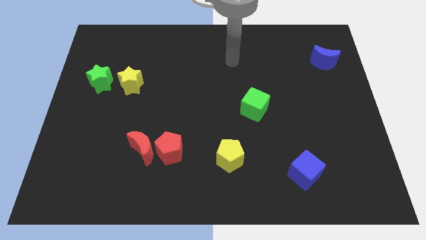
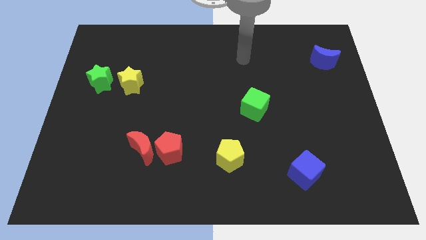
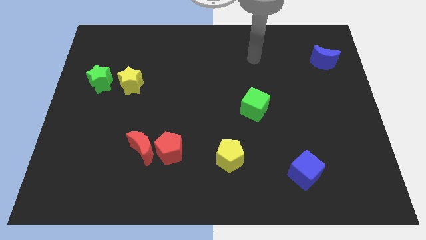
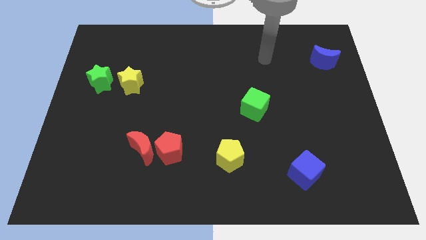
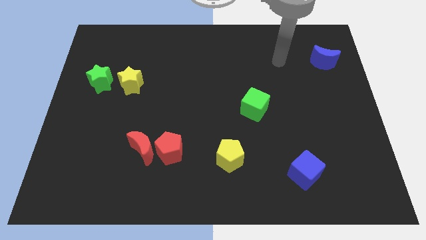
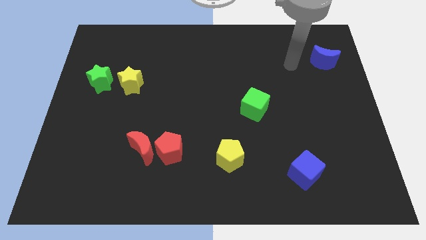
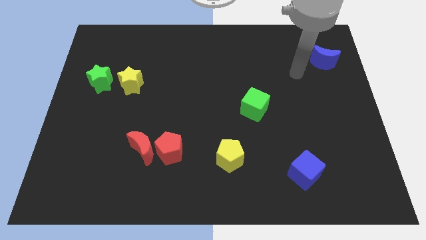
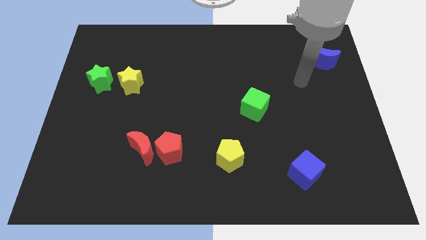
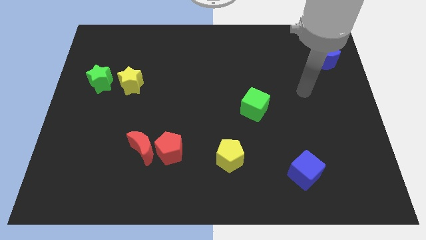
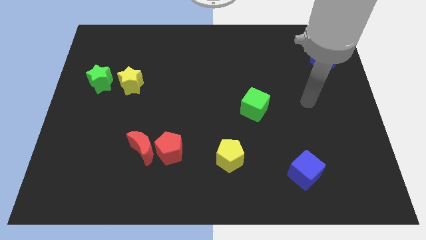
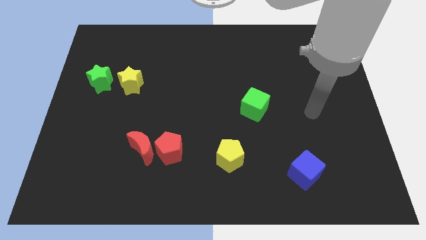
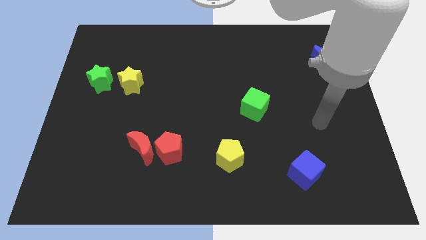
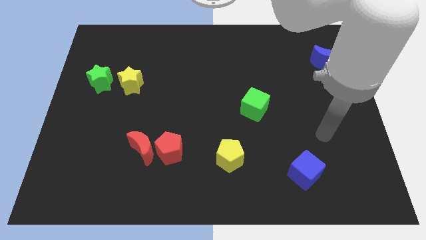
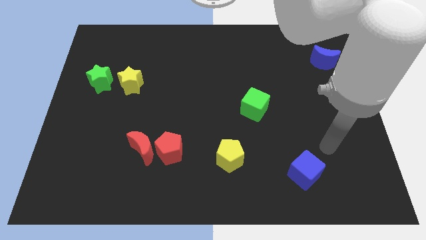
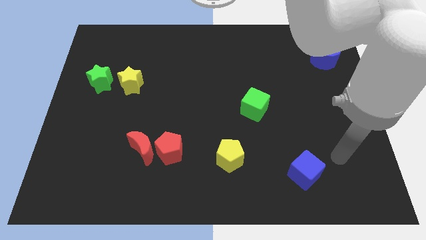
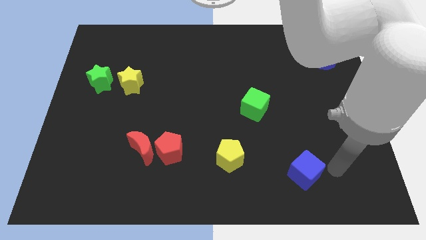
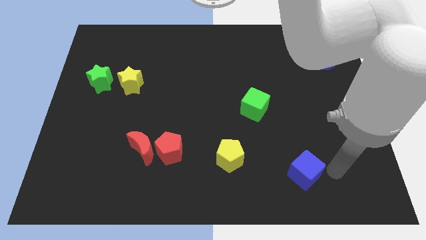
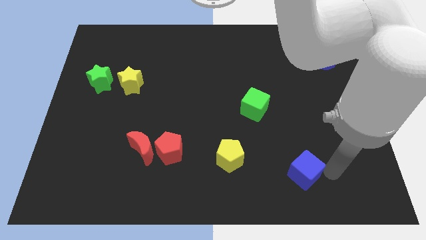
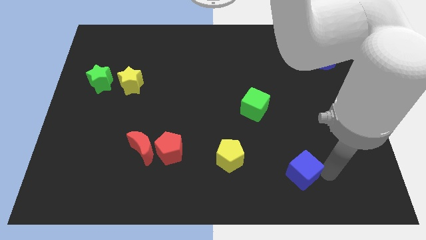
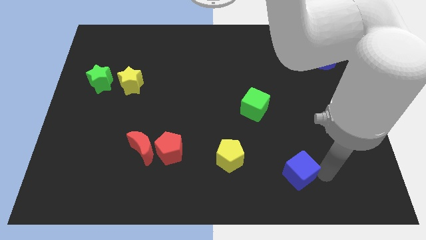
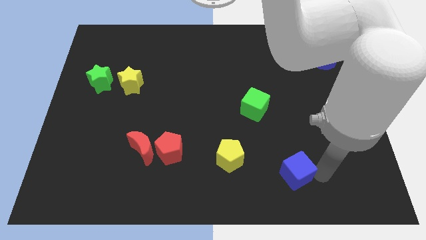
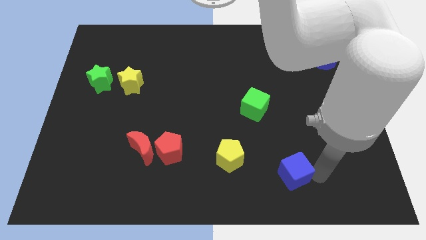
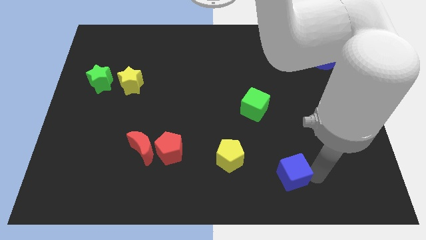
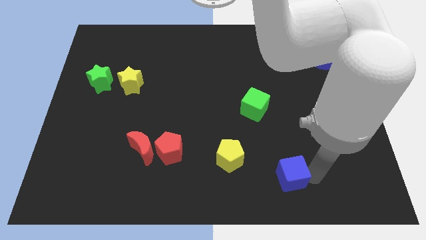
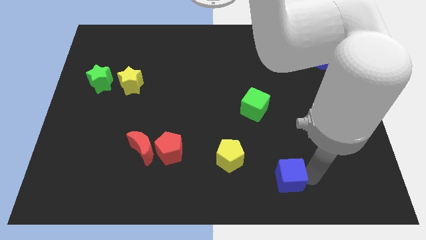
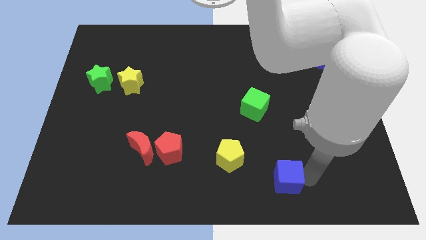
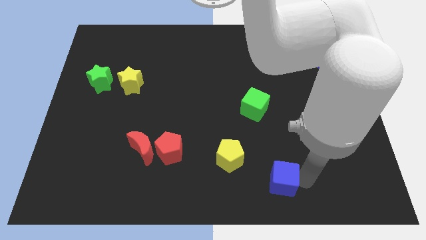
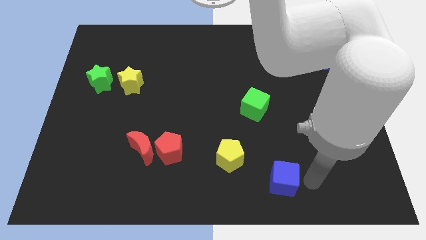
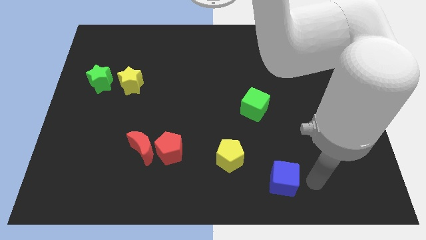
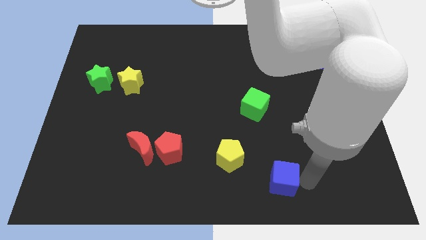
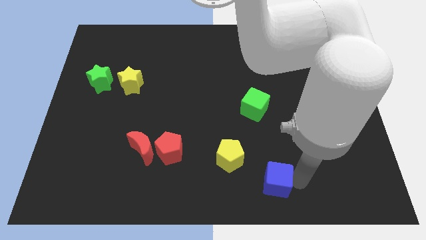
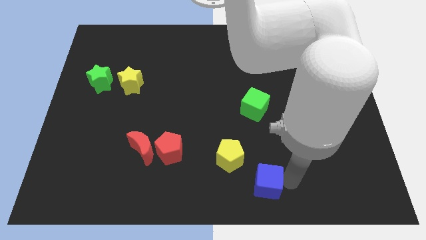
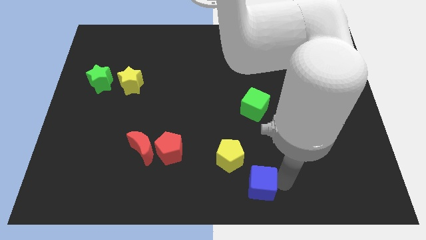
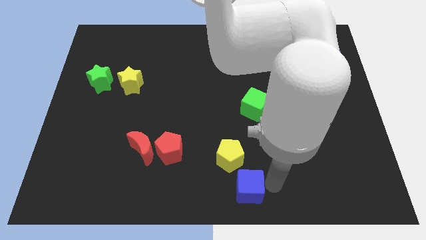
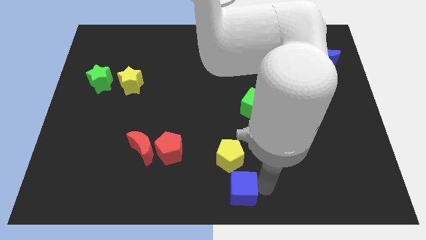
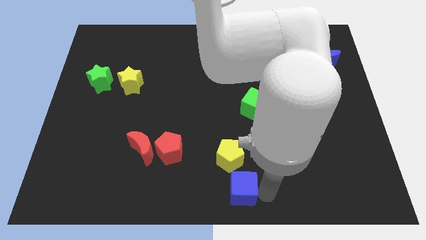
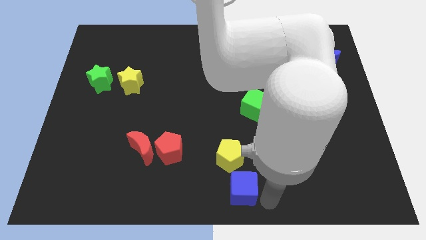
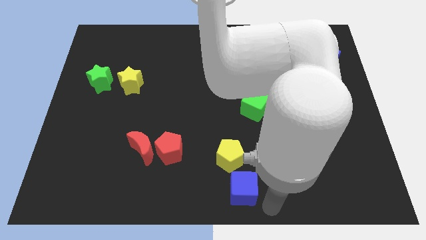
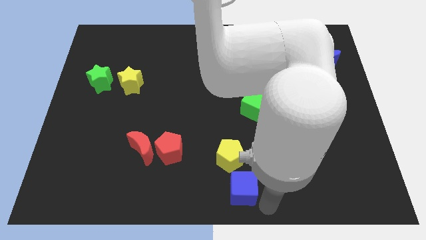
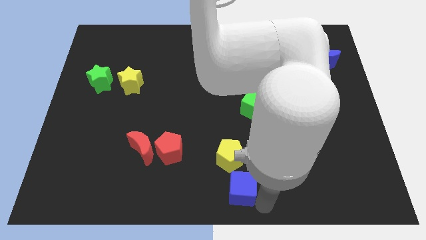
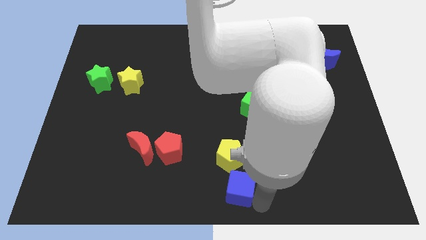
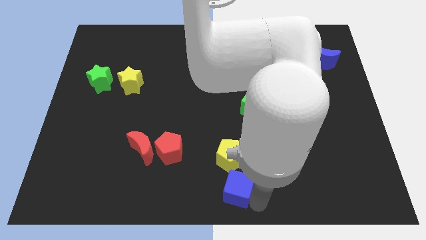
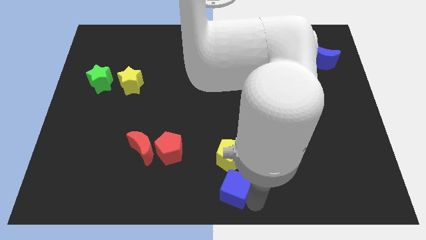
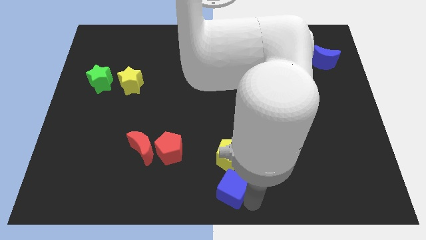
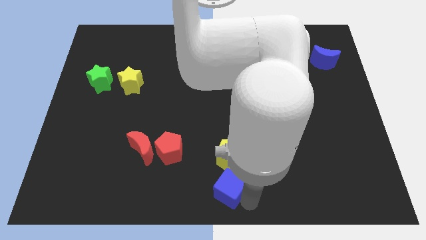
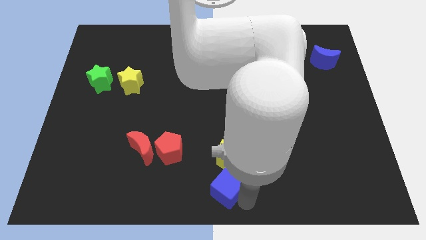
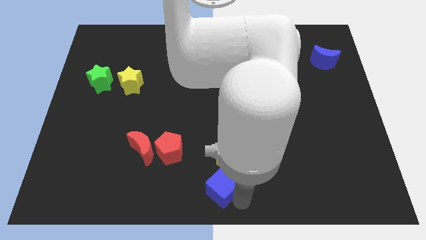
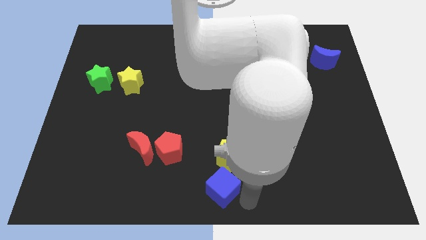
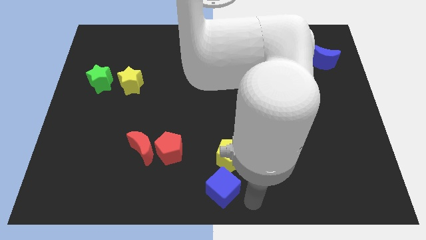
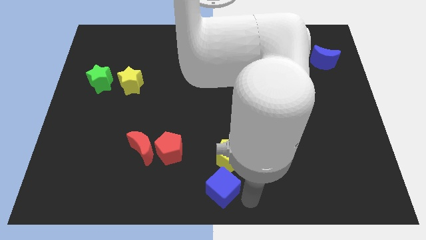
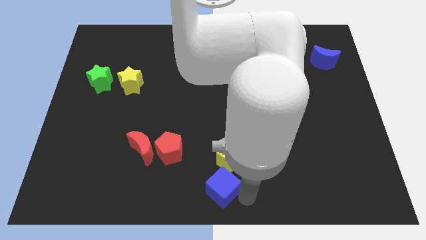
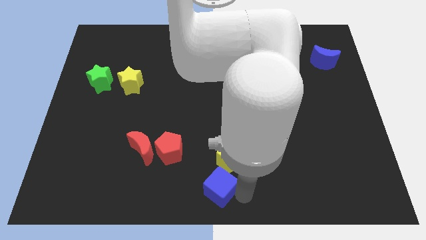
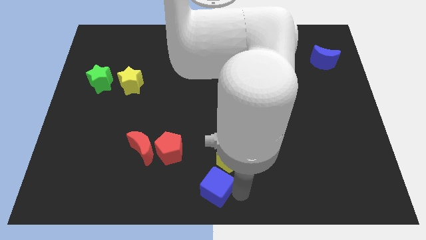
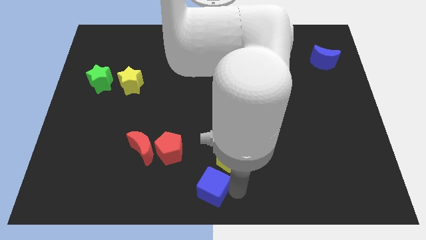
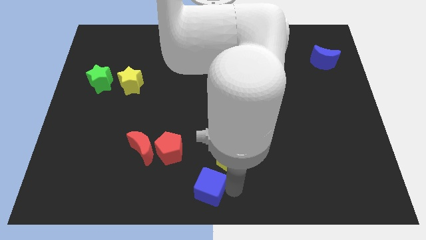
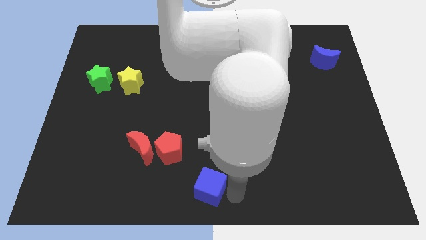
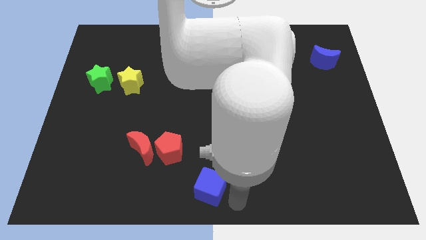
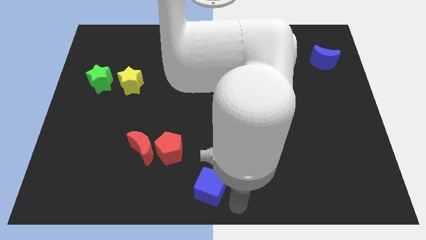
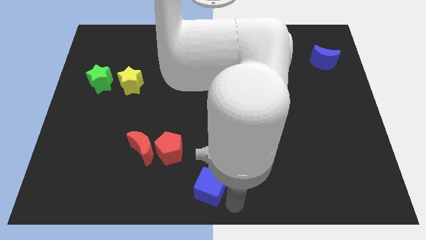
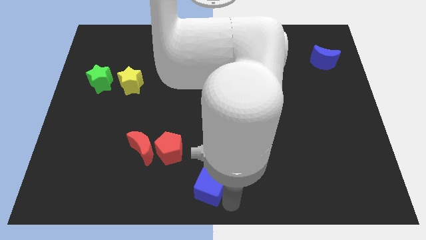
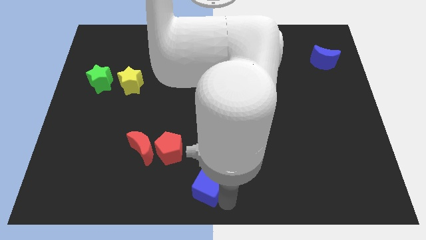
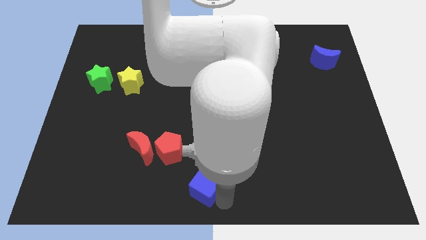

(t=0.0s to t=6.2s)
slide the blue cube left

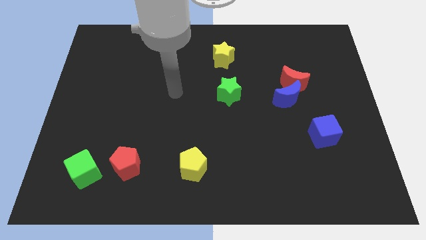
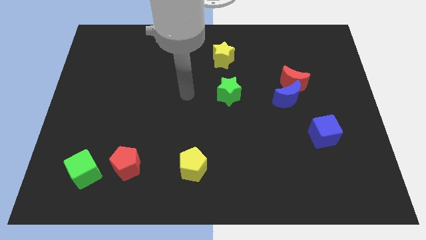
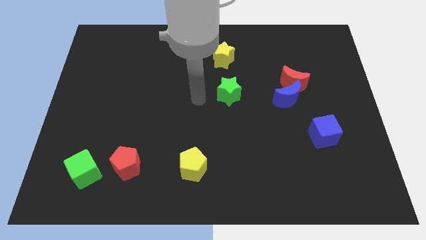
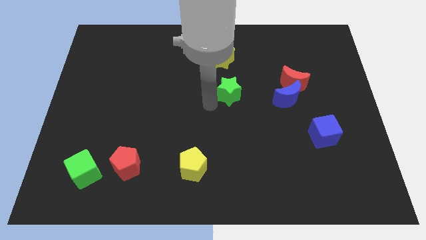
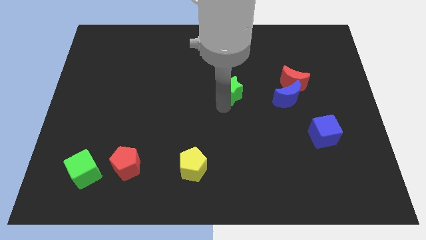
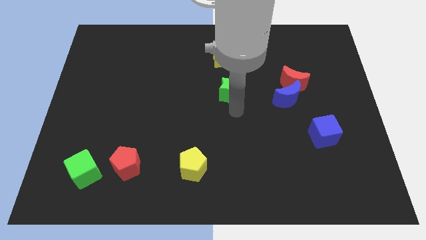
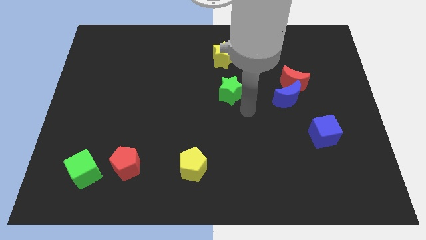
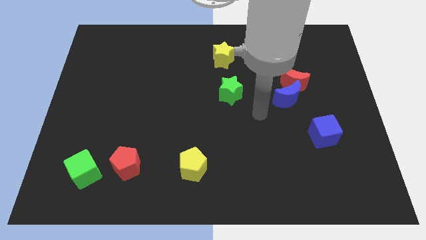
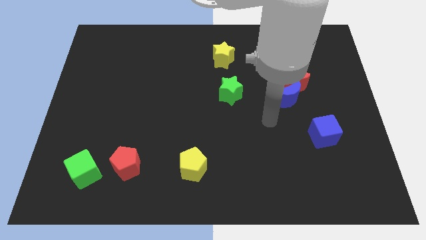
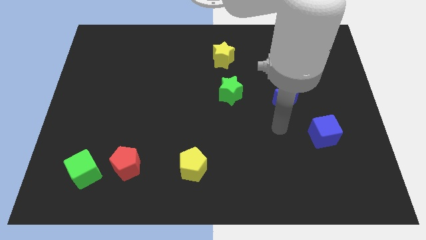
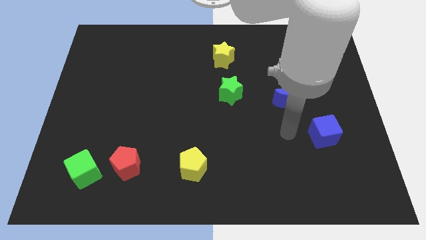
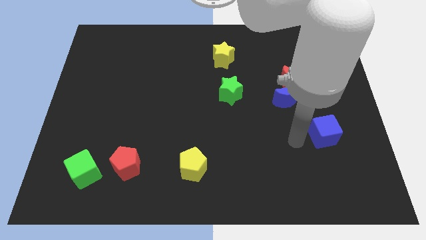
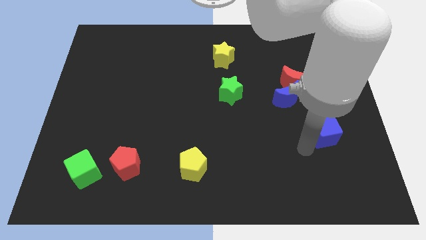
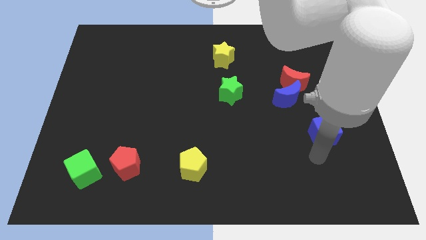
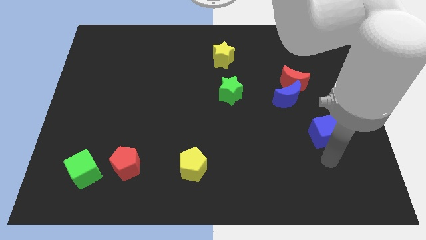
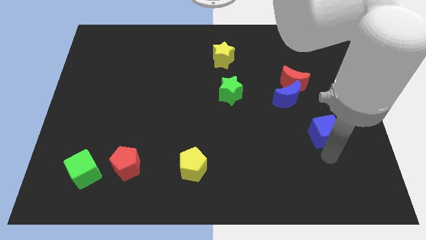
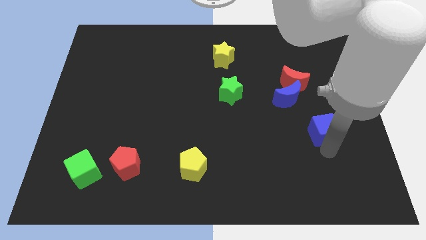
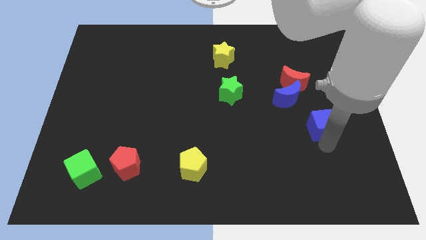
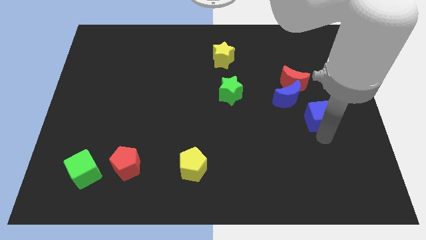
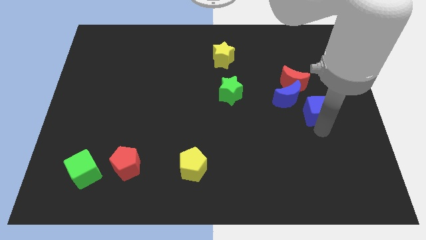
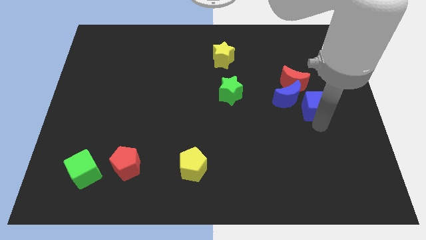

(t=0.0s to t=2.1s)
move the blue cube upwards a little

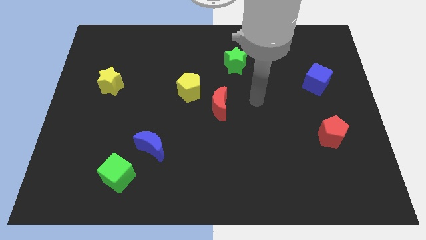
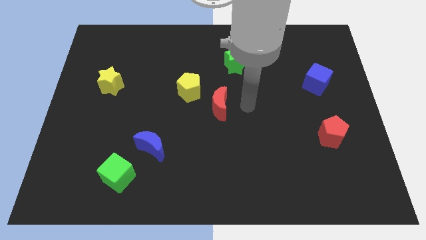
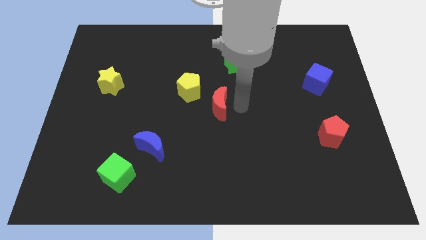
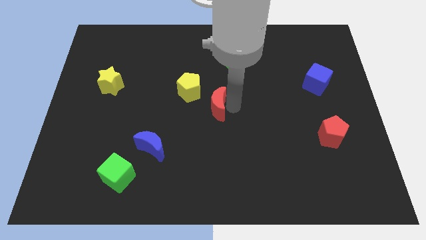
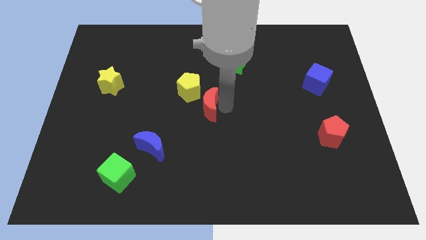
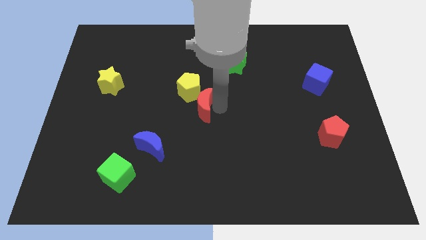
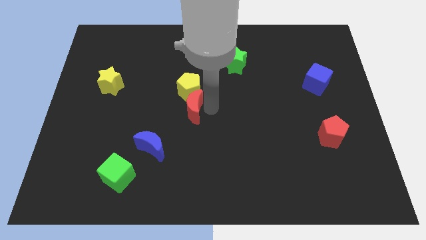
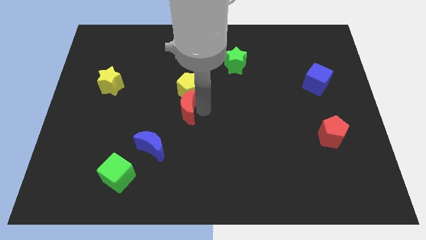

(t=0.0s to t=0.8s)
slightly push the red moon to the left
